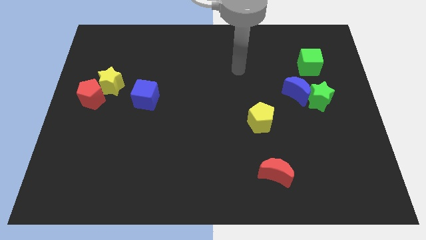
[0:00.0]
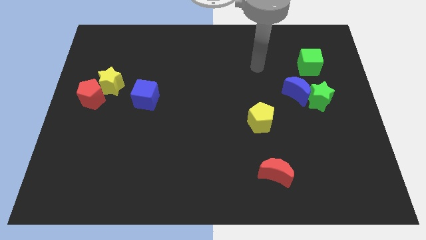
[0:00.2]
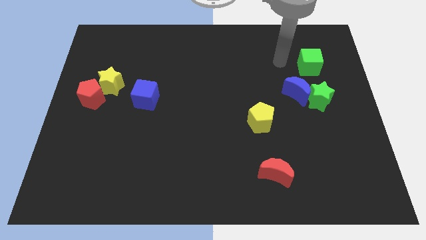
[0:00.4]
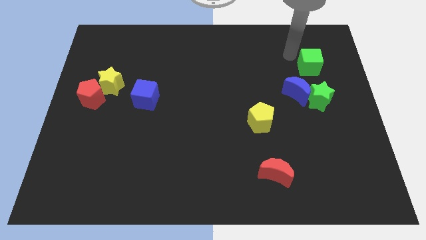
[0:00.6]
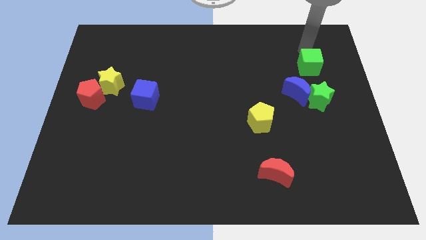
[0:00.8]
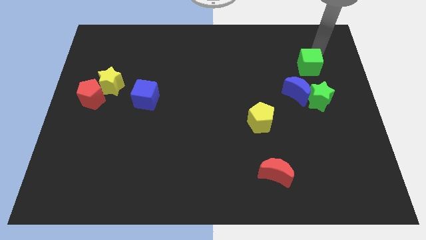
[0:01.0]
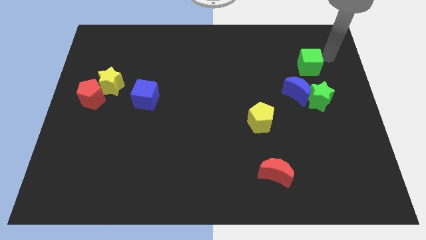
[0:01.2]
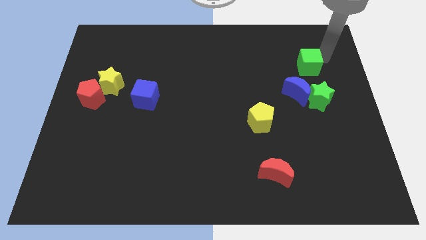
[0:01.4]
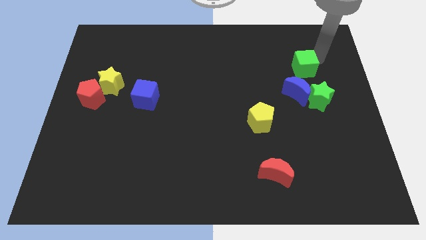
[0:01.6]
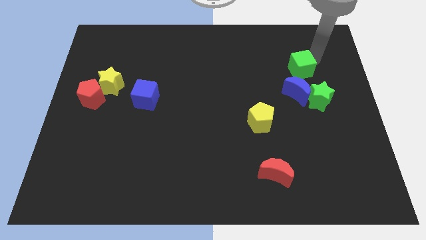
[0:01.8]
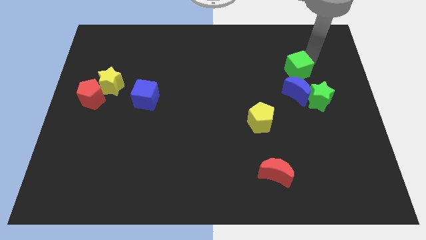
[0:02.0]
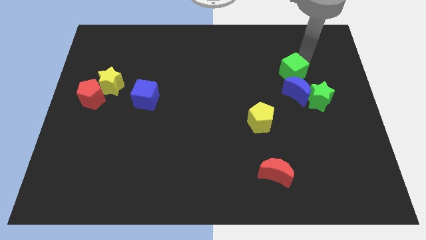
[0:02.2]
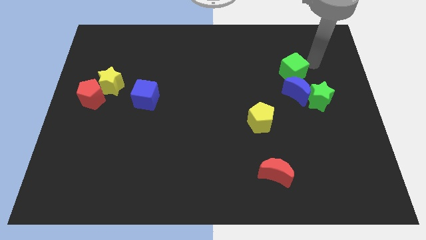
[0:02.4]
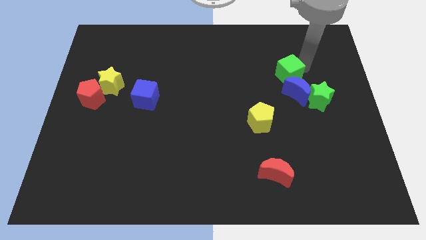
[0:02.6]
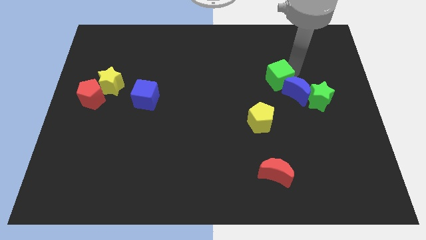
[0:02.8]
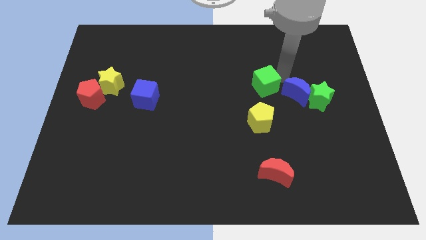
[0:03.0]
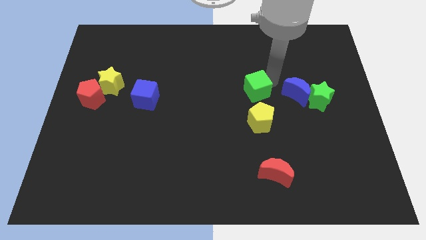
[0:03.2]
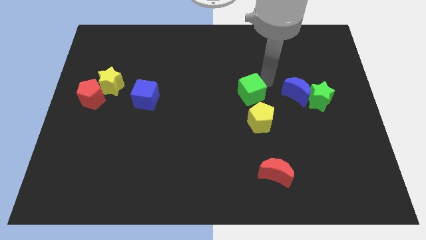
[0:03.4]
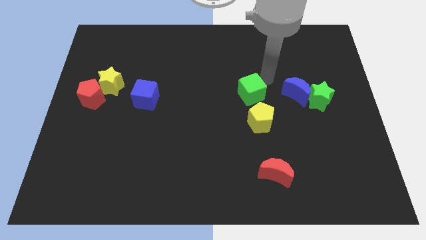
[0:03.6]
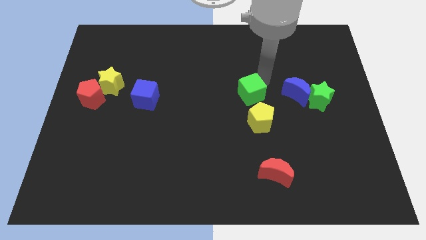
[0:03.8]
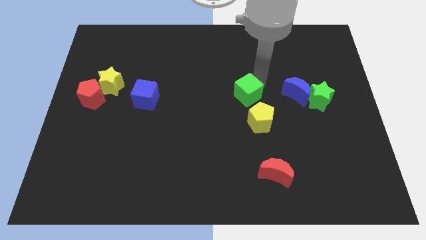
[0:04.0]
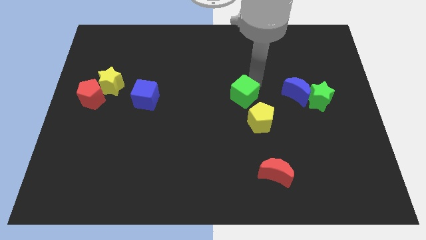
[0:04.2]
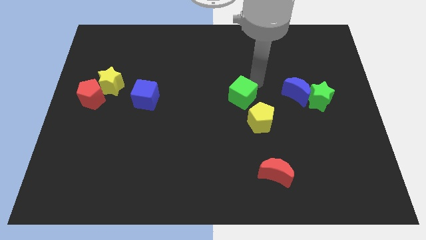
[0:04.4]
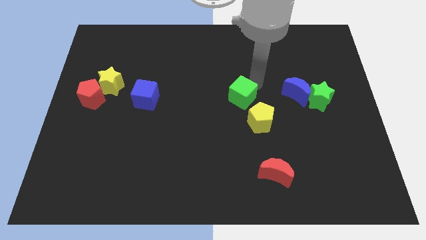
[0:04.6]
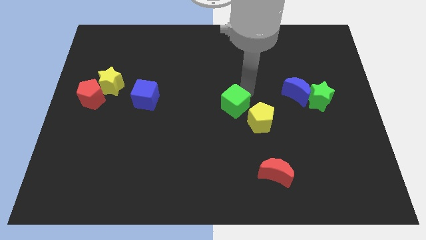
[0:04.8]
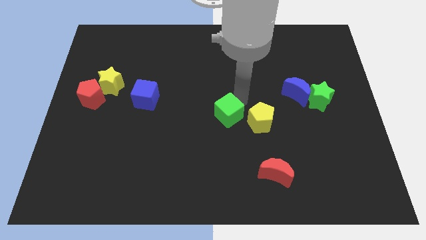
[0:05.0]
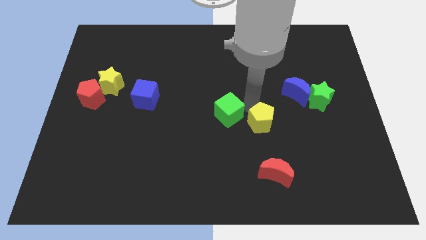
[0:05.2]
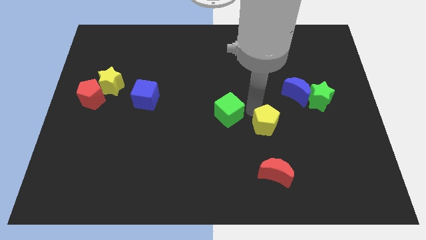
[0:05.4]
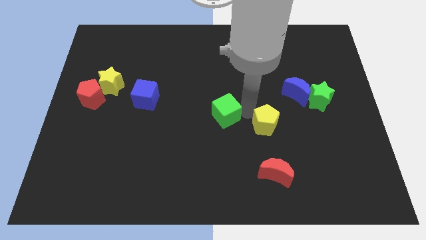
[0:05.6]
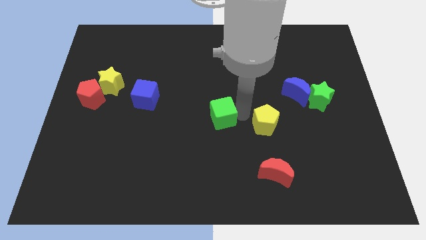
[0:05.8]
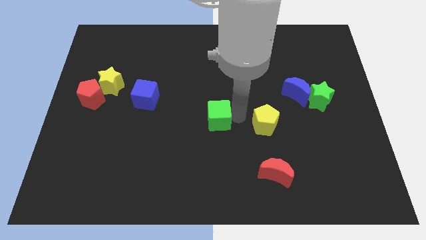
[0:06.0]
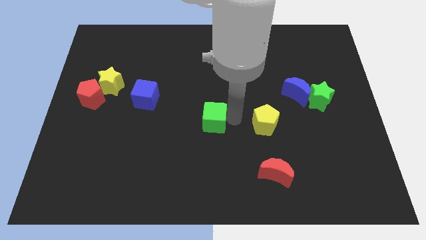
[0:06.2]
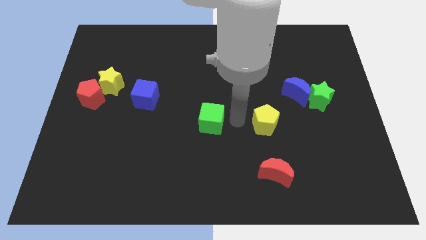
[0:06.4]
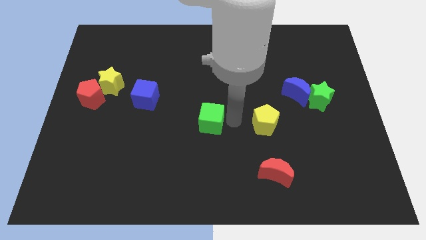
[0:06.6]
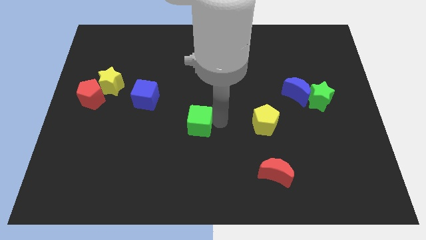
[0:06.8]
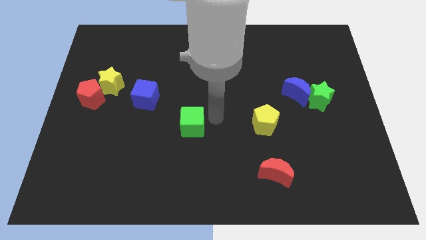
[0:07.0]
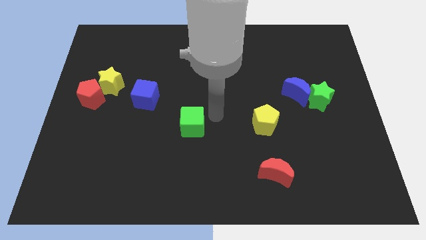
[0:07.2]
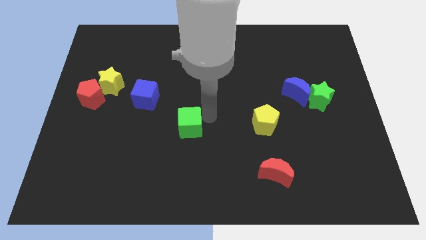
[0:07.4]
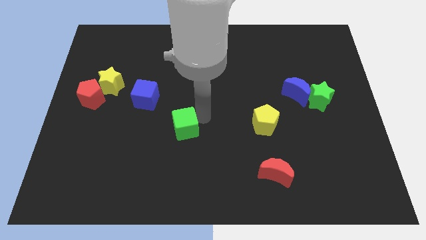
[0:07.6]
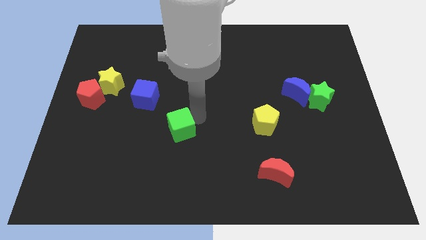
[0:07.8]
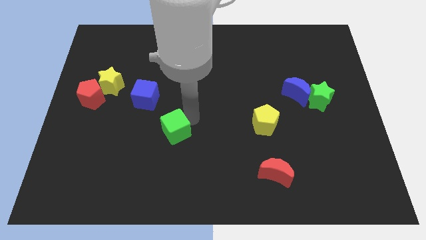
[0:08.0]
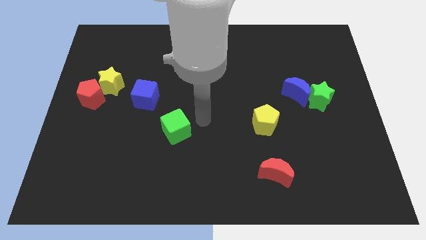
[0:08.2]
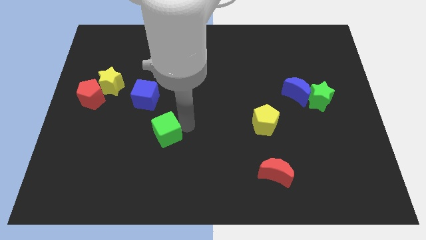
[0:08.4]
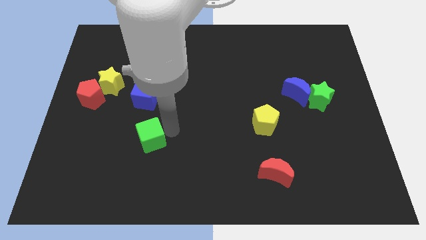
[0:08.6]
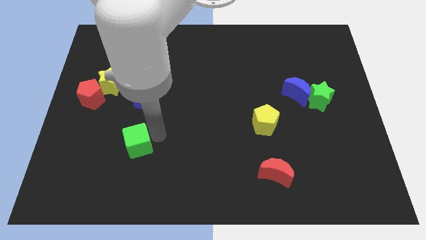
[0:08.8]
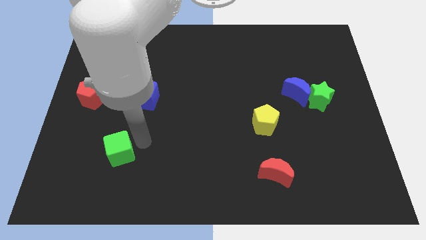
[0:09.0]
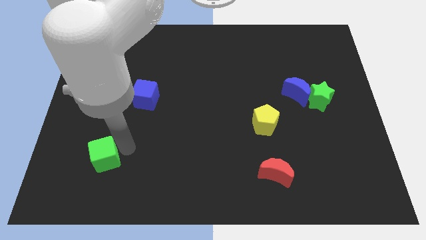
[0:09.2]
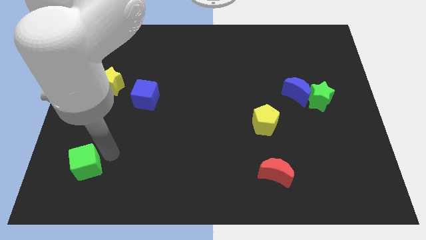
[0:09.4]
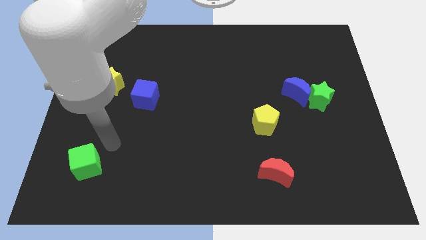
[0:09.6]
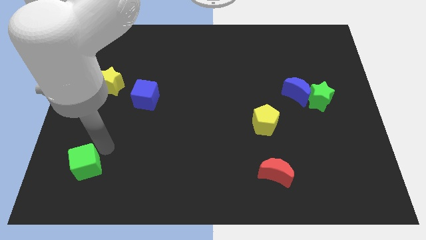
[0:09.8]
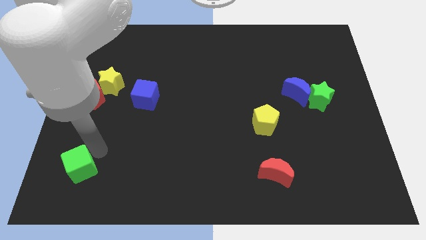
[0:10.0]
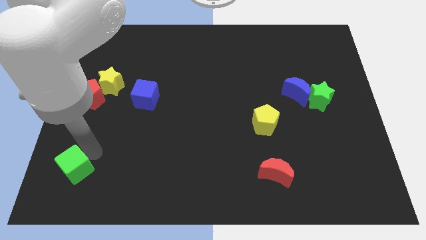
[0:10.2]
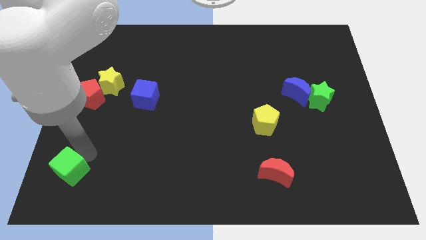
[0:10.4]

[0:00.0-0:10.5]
slide the green cube to the lower left corner

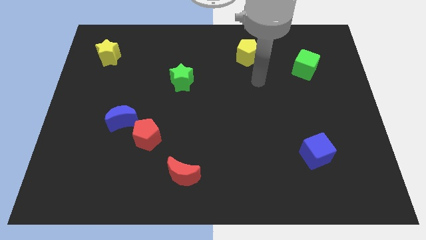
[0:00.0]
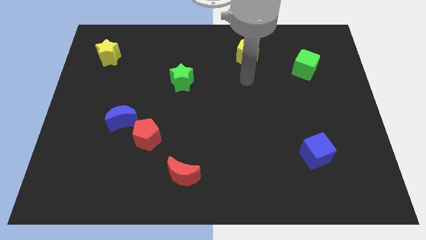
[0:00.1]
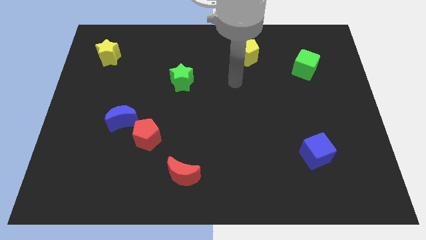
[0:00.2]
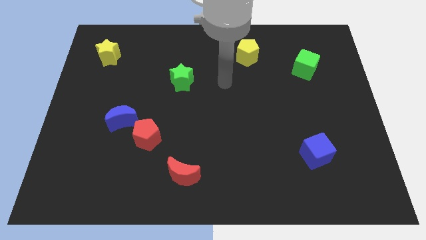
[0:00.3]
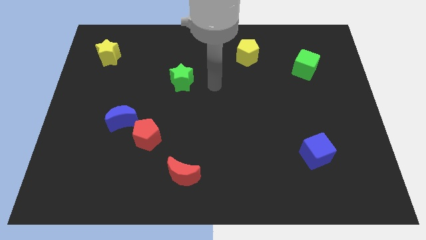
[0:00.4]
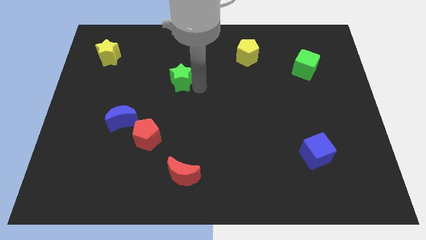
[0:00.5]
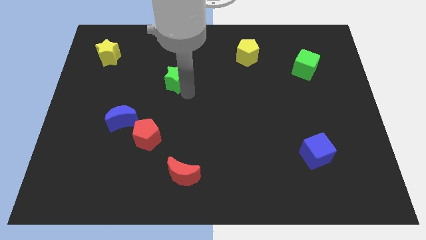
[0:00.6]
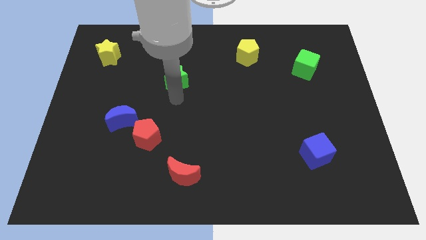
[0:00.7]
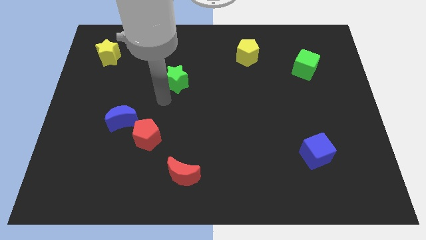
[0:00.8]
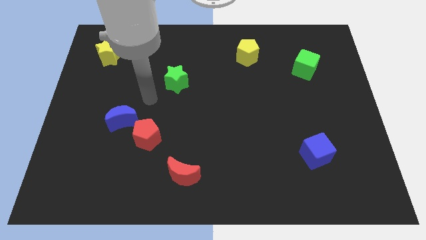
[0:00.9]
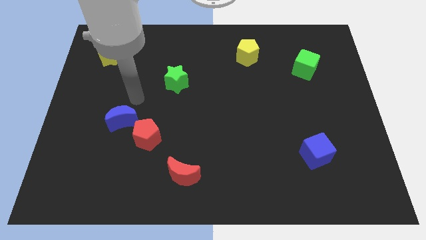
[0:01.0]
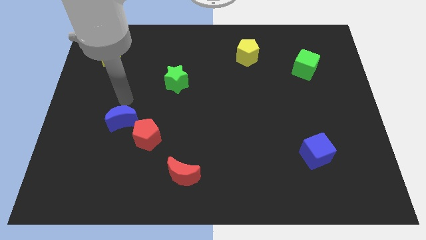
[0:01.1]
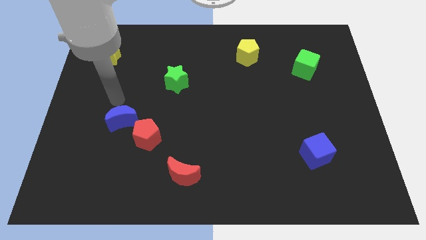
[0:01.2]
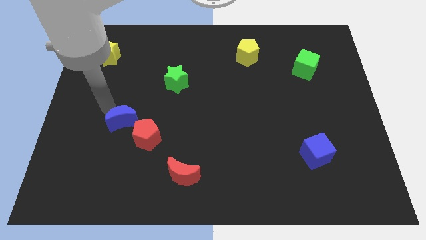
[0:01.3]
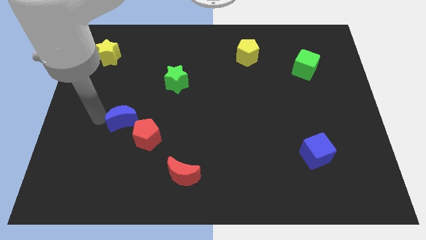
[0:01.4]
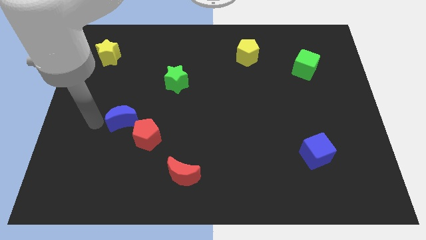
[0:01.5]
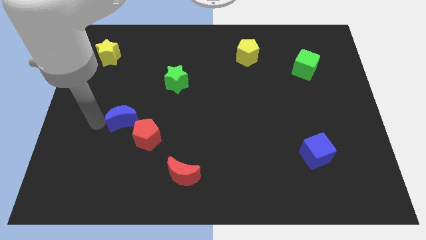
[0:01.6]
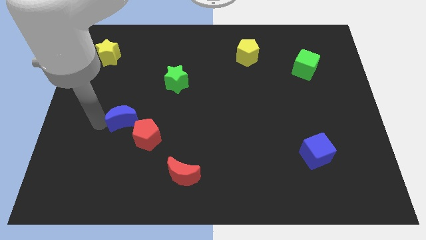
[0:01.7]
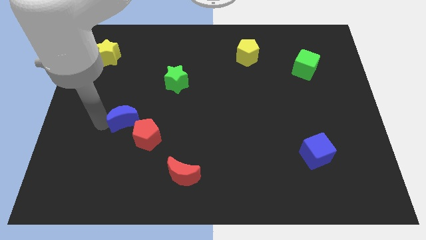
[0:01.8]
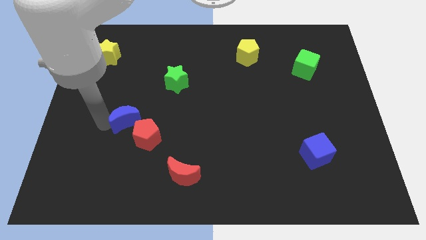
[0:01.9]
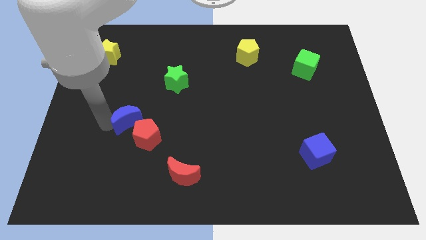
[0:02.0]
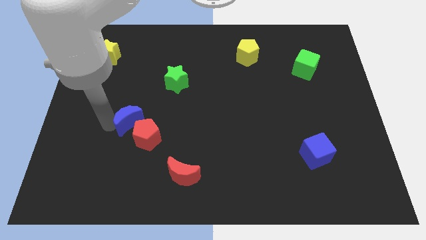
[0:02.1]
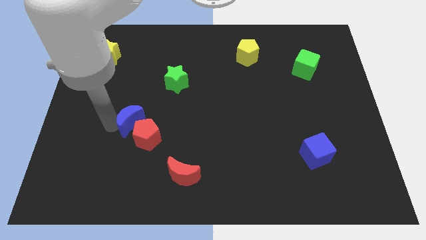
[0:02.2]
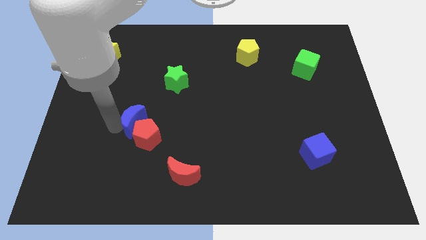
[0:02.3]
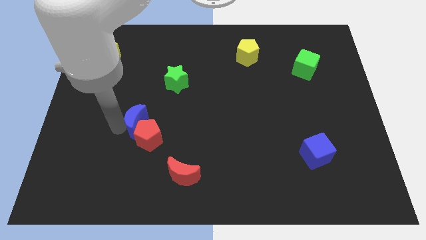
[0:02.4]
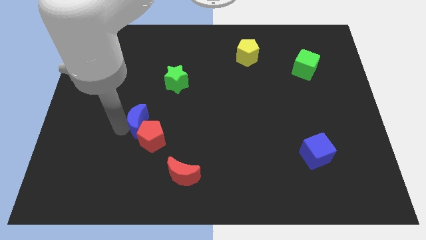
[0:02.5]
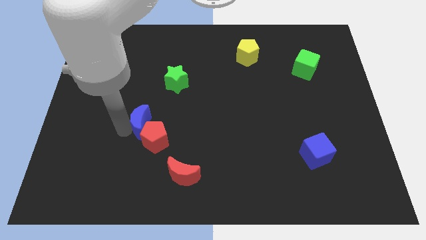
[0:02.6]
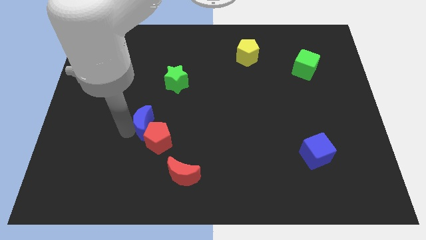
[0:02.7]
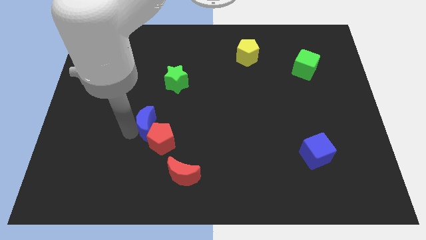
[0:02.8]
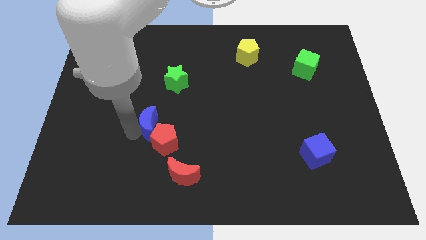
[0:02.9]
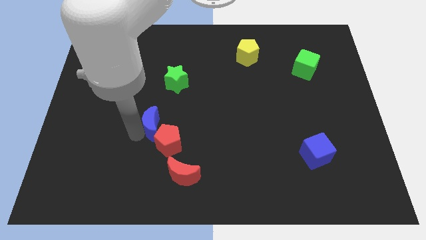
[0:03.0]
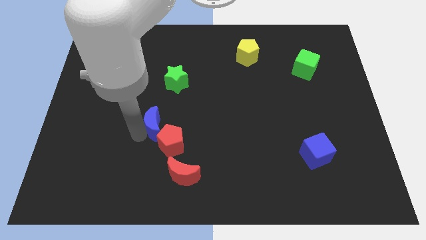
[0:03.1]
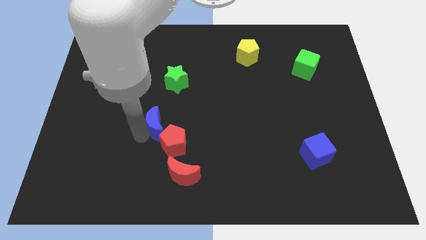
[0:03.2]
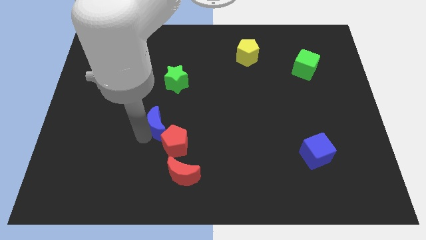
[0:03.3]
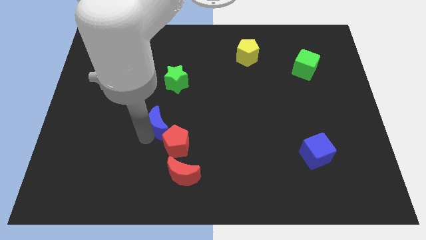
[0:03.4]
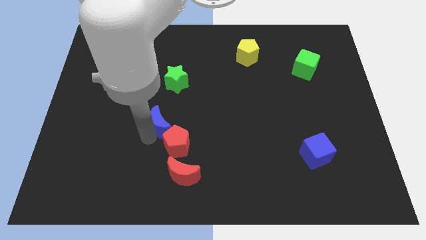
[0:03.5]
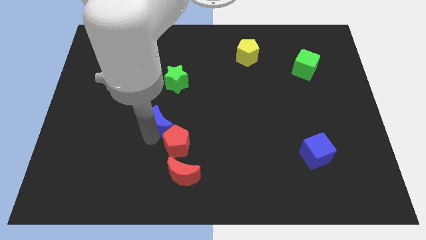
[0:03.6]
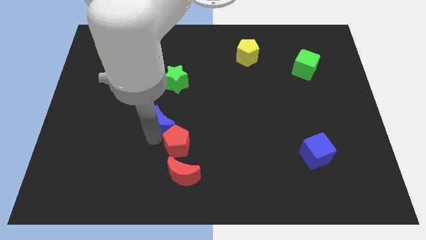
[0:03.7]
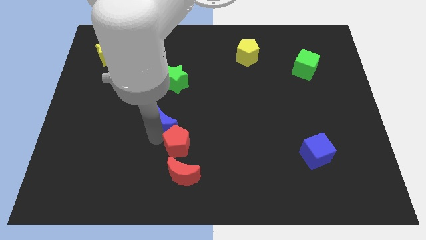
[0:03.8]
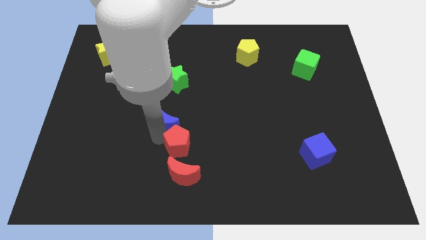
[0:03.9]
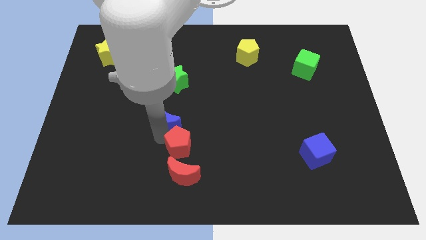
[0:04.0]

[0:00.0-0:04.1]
move the blue moon to the center of the board
